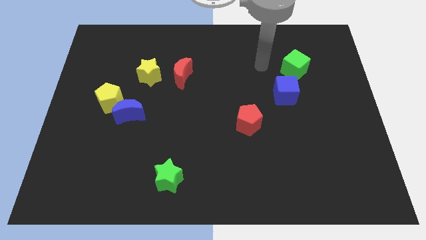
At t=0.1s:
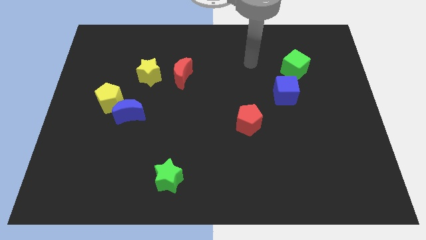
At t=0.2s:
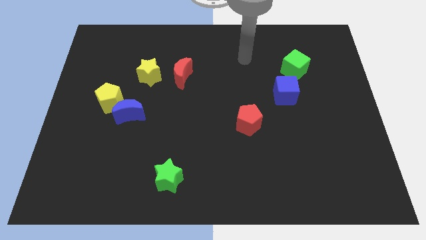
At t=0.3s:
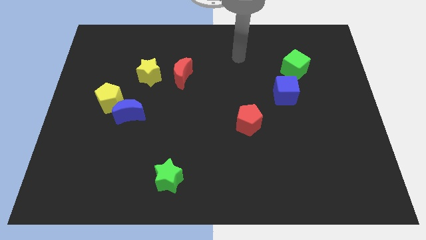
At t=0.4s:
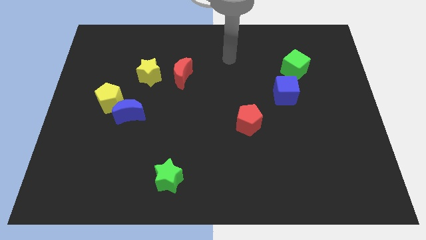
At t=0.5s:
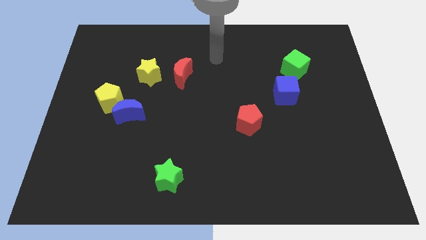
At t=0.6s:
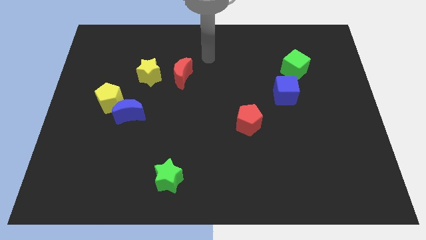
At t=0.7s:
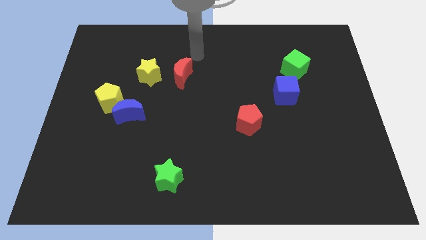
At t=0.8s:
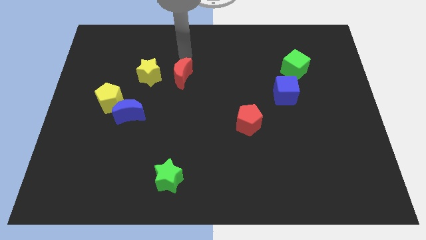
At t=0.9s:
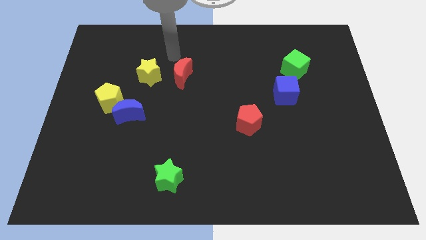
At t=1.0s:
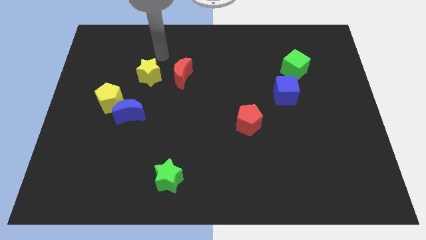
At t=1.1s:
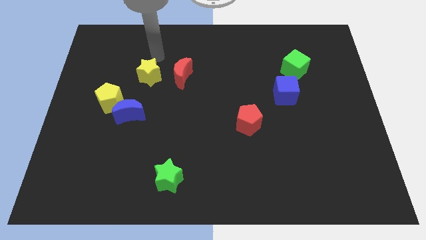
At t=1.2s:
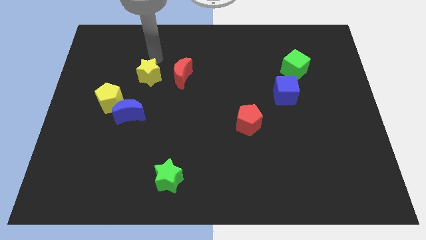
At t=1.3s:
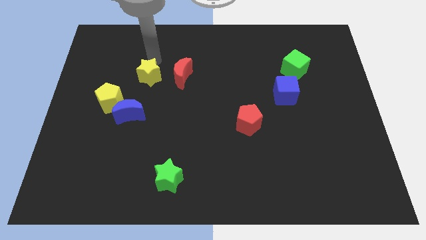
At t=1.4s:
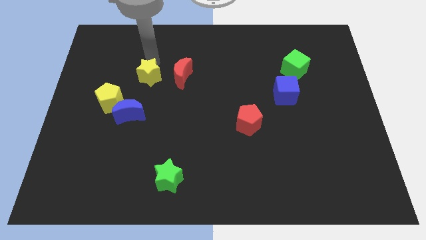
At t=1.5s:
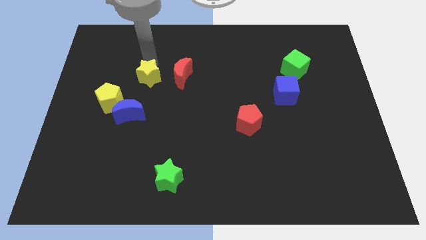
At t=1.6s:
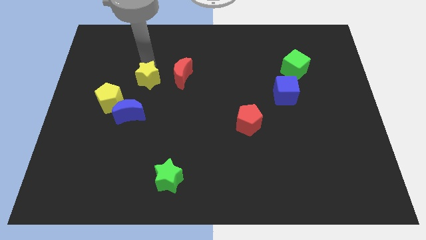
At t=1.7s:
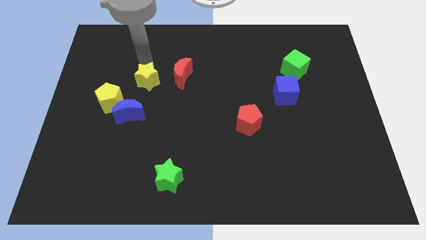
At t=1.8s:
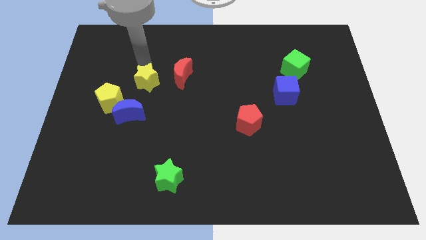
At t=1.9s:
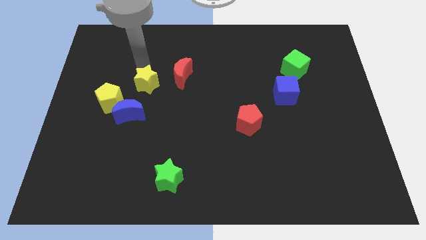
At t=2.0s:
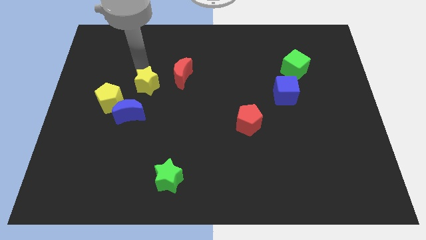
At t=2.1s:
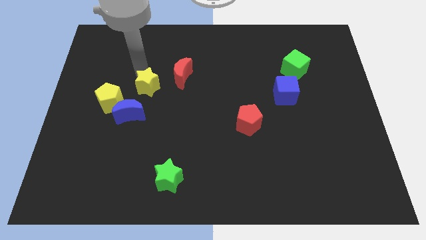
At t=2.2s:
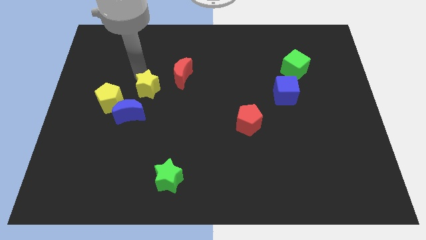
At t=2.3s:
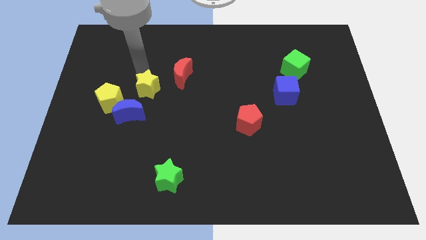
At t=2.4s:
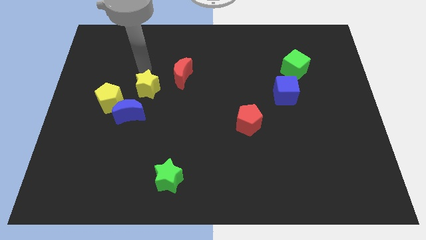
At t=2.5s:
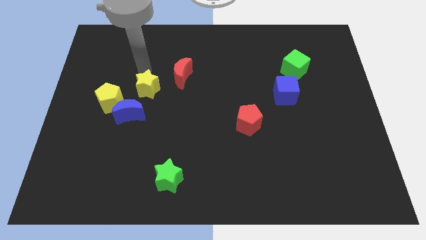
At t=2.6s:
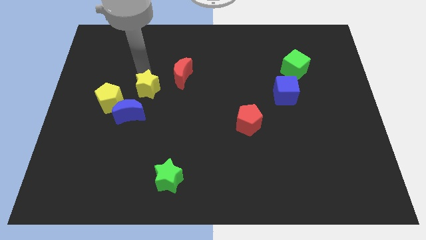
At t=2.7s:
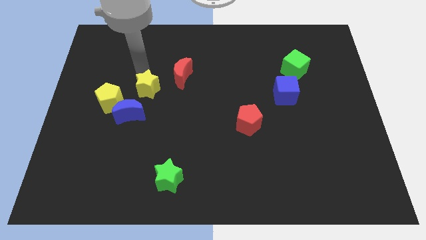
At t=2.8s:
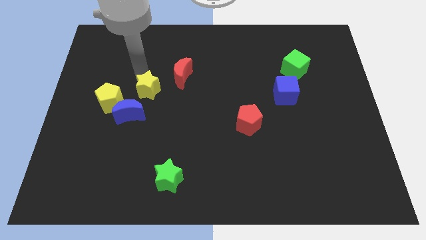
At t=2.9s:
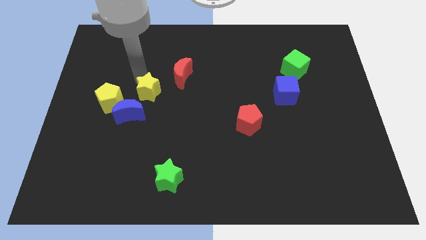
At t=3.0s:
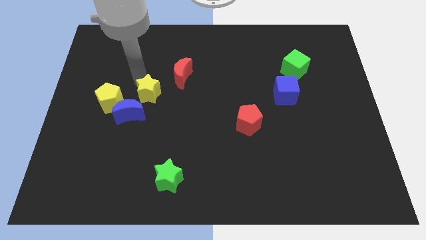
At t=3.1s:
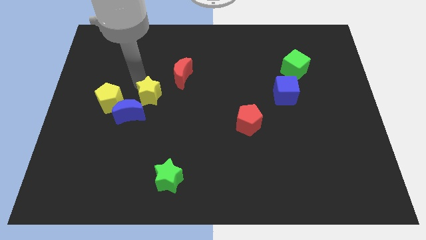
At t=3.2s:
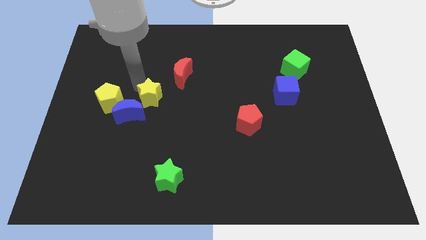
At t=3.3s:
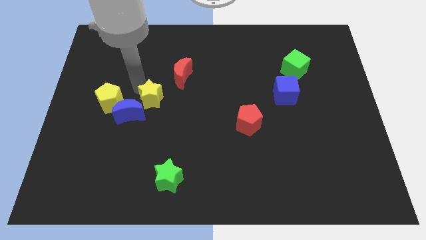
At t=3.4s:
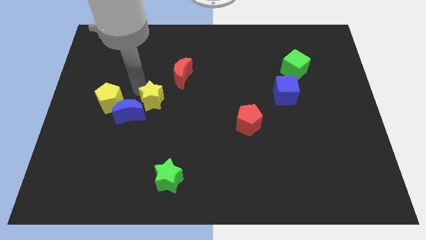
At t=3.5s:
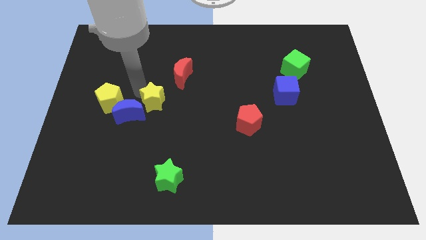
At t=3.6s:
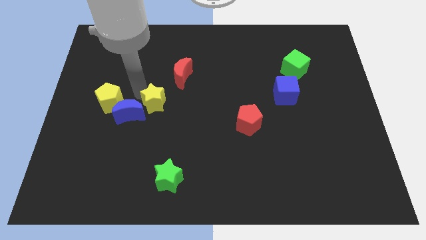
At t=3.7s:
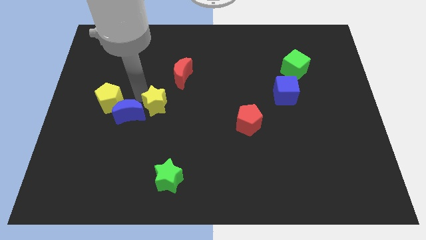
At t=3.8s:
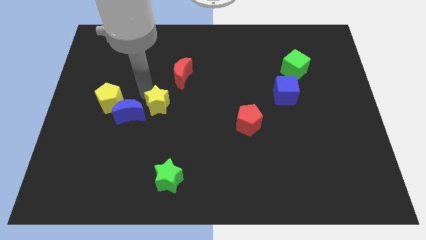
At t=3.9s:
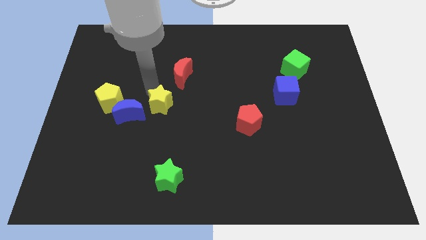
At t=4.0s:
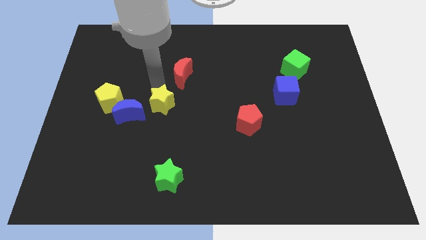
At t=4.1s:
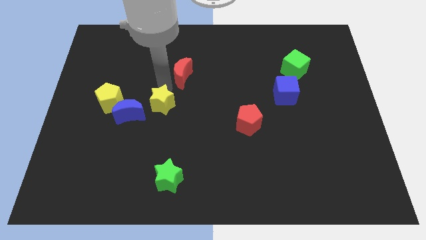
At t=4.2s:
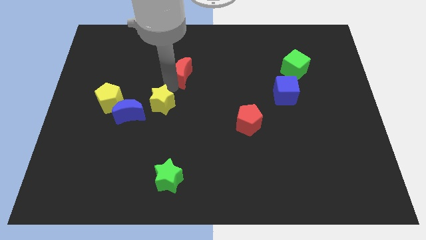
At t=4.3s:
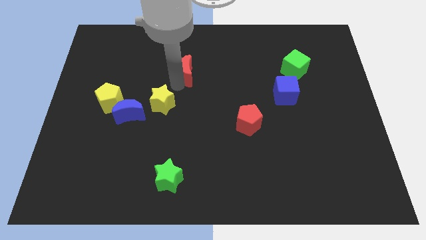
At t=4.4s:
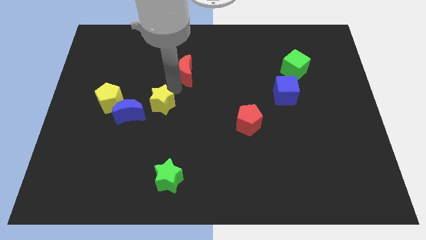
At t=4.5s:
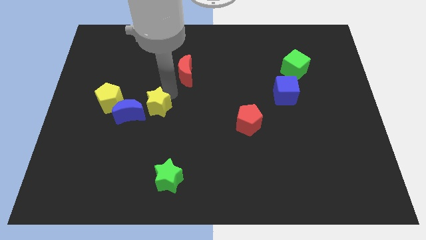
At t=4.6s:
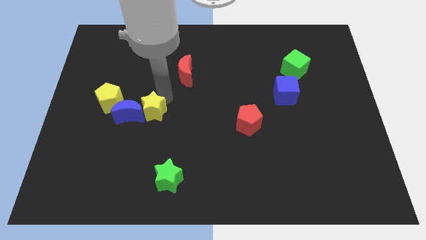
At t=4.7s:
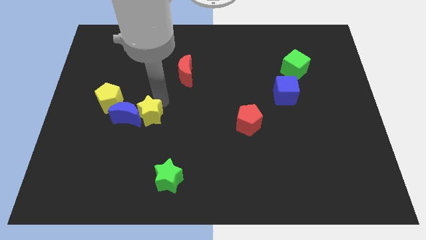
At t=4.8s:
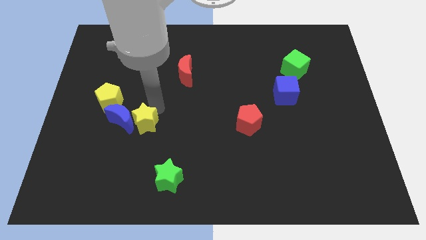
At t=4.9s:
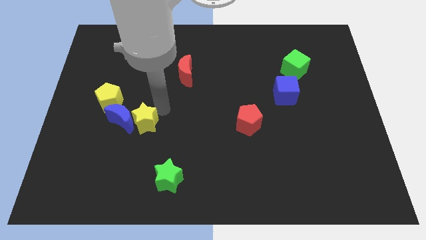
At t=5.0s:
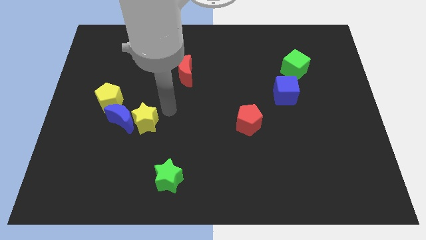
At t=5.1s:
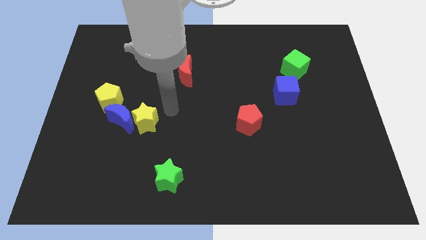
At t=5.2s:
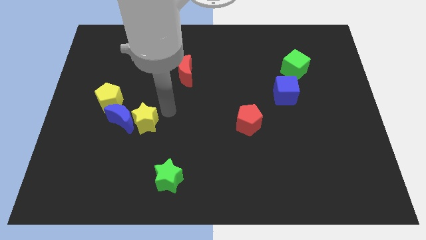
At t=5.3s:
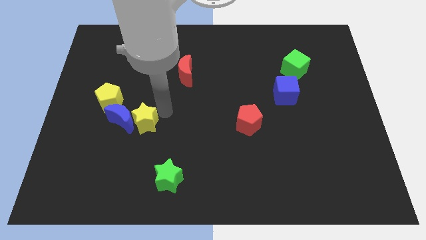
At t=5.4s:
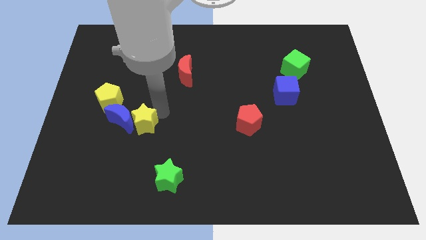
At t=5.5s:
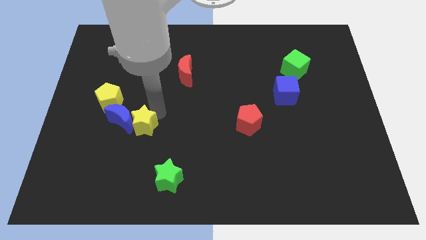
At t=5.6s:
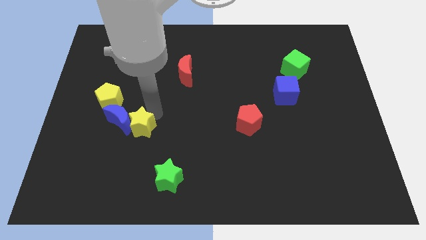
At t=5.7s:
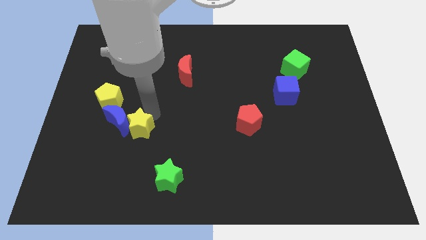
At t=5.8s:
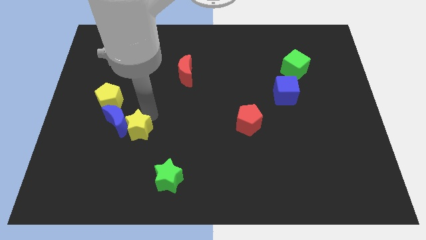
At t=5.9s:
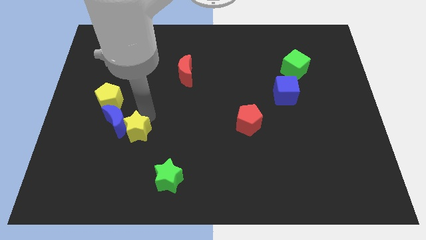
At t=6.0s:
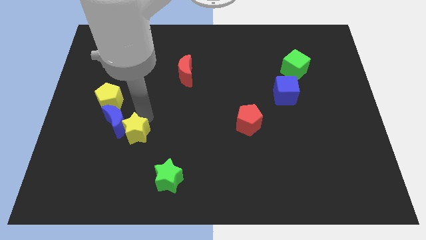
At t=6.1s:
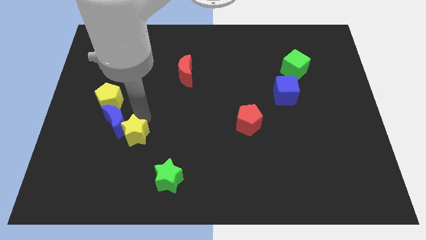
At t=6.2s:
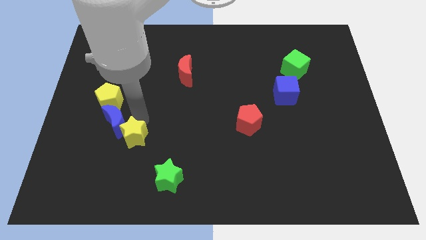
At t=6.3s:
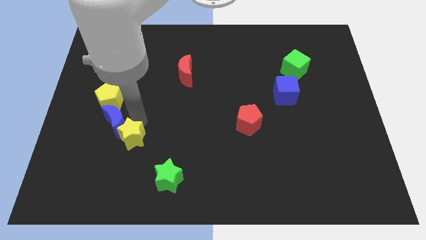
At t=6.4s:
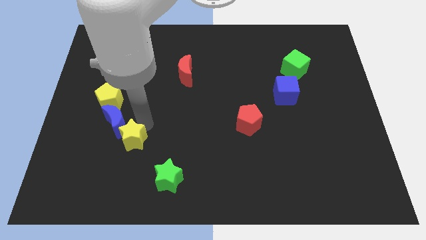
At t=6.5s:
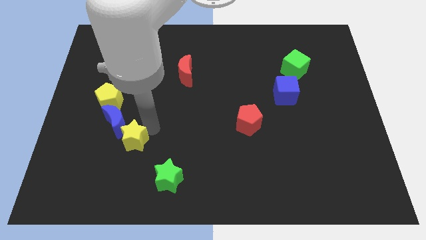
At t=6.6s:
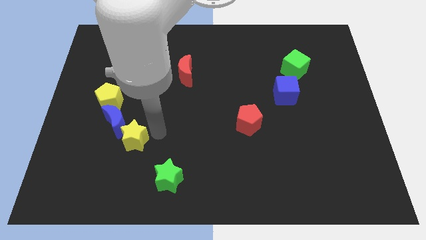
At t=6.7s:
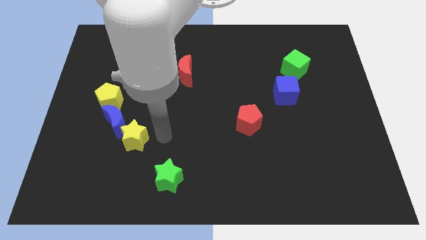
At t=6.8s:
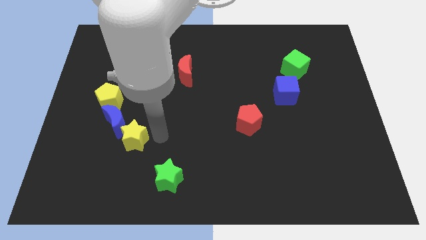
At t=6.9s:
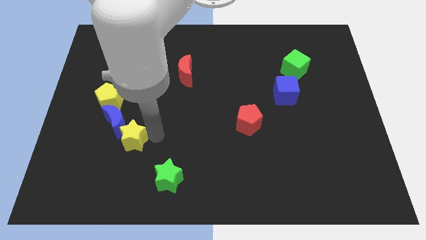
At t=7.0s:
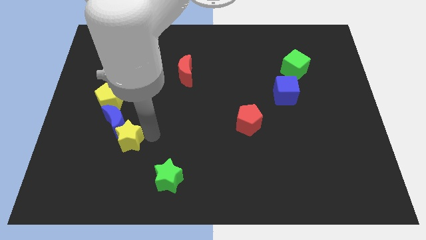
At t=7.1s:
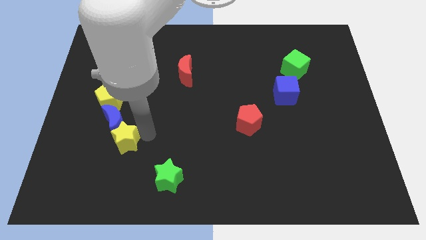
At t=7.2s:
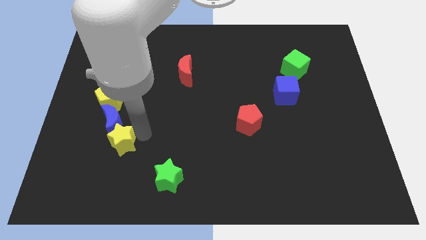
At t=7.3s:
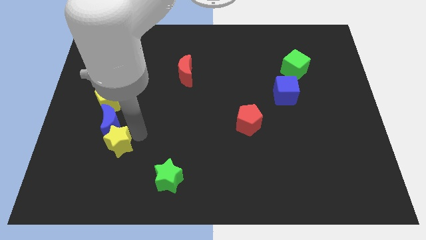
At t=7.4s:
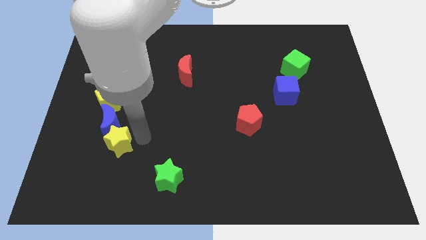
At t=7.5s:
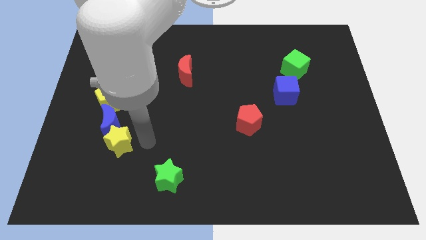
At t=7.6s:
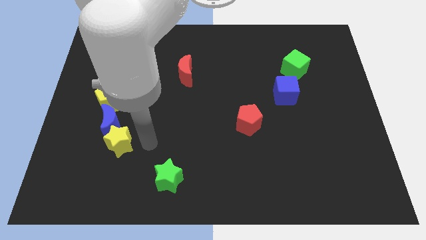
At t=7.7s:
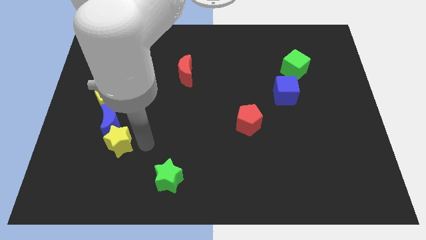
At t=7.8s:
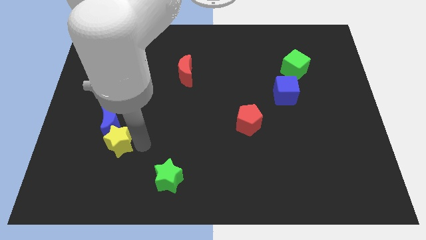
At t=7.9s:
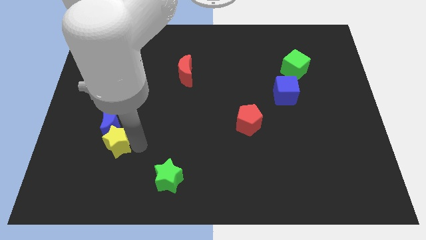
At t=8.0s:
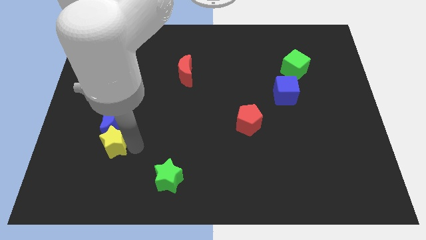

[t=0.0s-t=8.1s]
move the yellow star to the bottom left side of the blue moon
